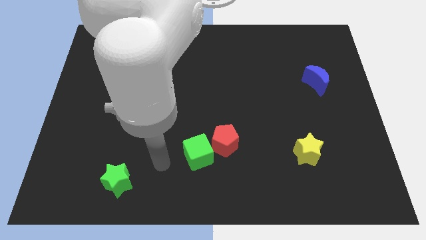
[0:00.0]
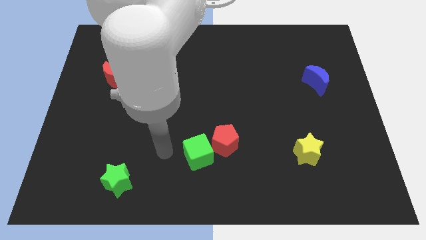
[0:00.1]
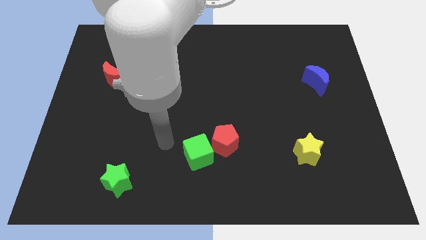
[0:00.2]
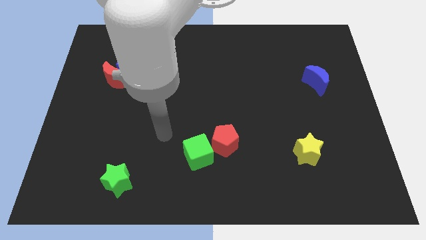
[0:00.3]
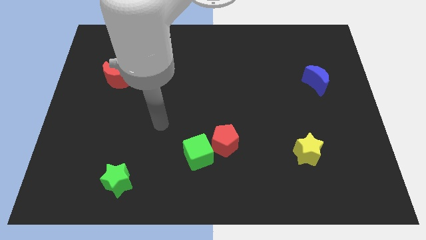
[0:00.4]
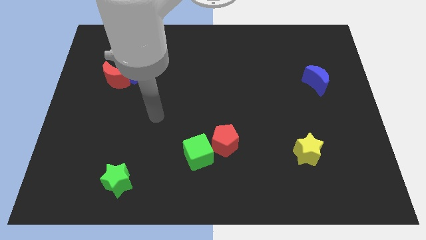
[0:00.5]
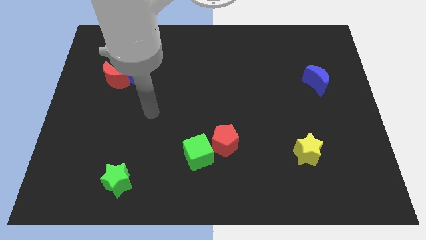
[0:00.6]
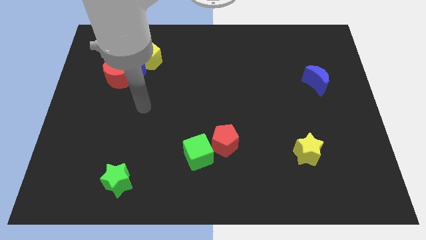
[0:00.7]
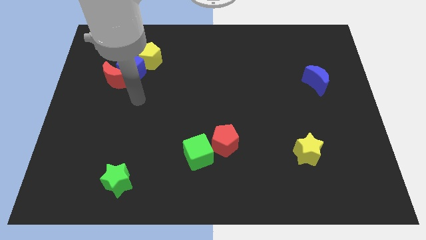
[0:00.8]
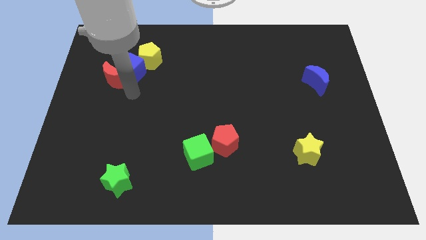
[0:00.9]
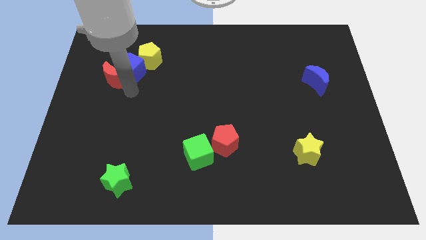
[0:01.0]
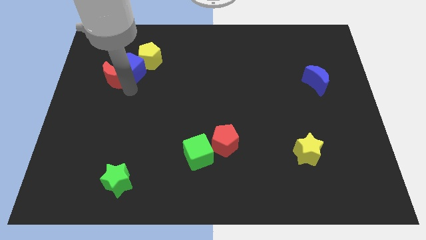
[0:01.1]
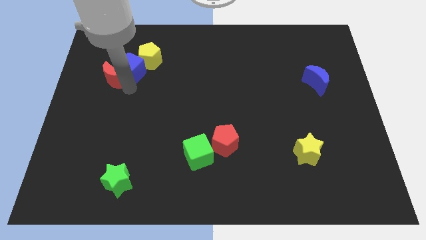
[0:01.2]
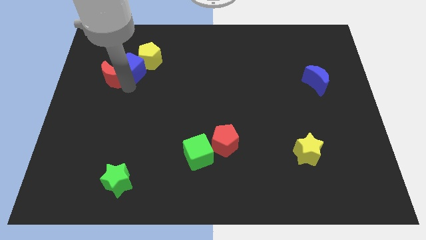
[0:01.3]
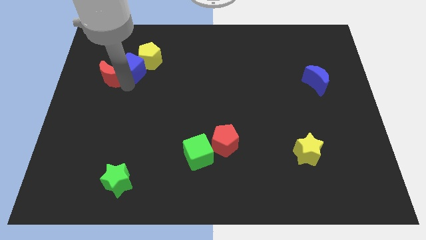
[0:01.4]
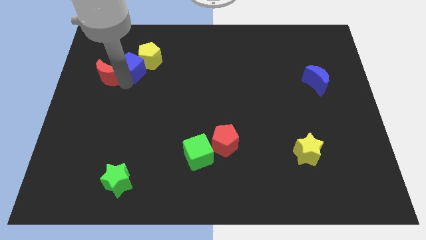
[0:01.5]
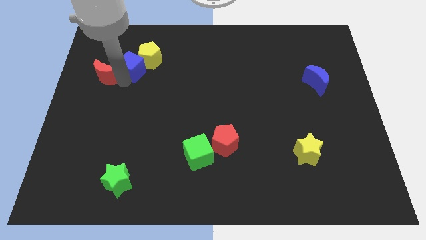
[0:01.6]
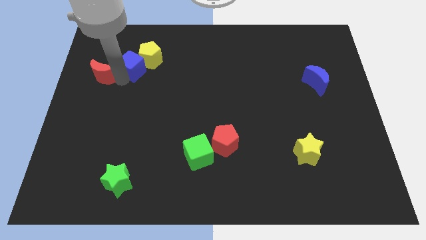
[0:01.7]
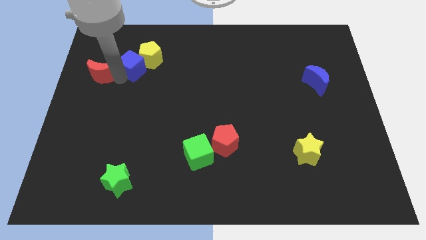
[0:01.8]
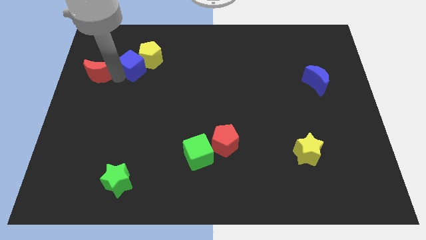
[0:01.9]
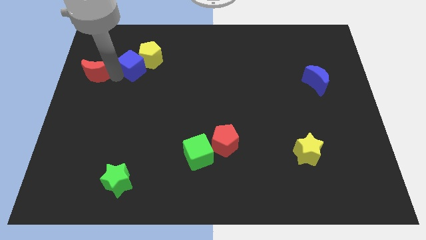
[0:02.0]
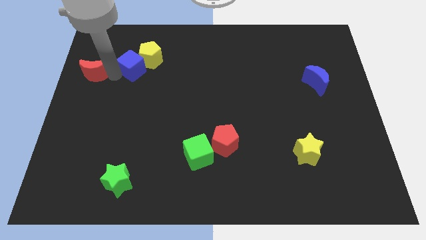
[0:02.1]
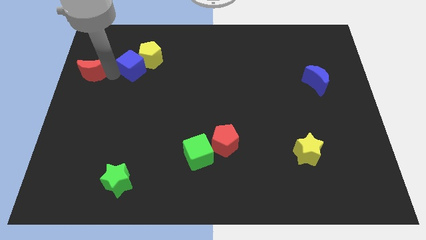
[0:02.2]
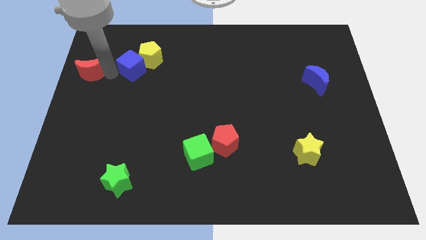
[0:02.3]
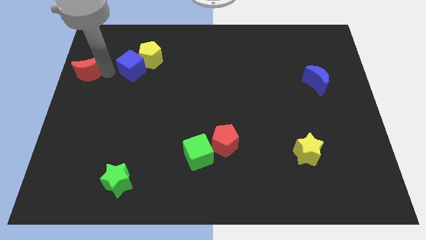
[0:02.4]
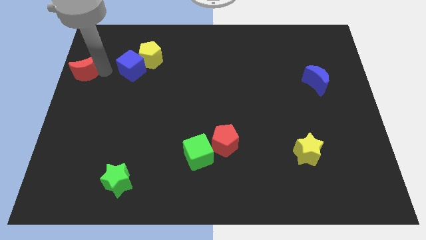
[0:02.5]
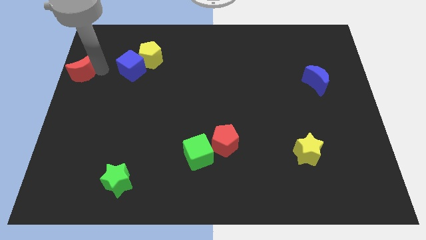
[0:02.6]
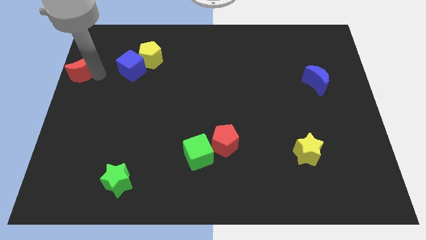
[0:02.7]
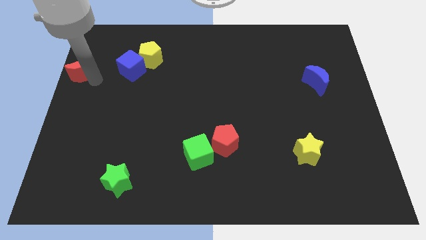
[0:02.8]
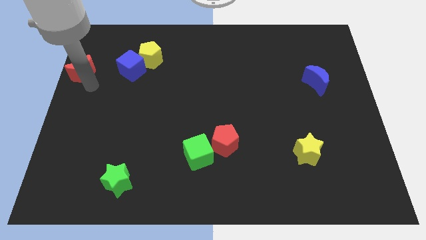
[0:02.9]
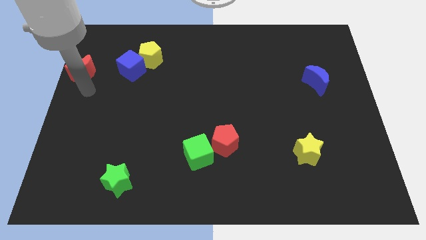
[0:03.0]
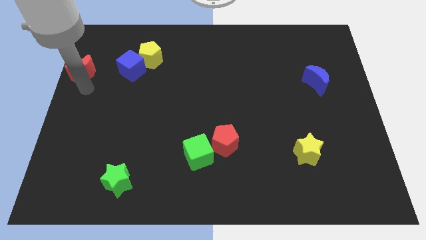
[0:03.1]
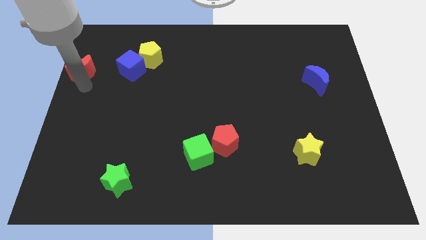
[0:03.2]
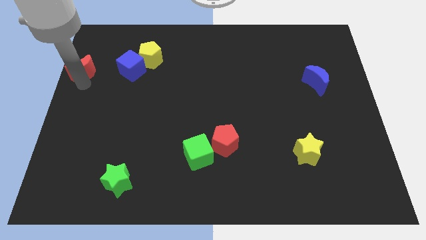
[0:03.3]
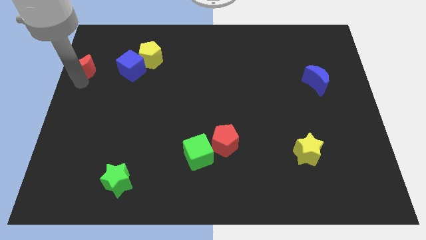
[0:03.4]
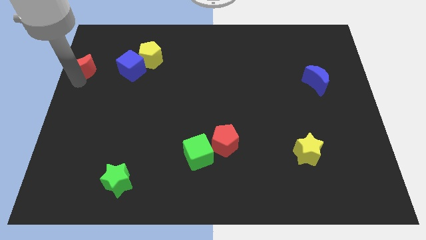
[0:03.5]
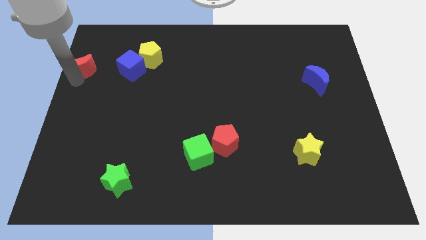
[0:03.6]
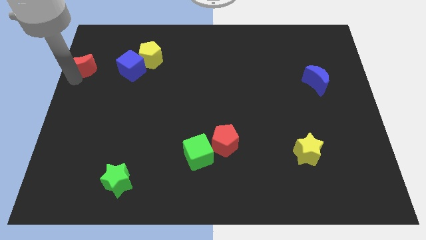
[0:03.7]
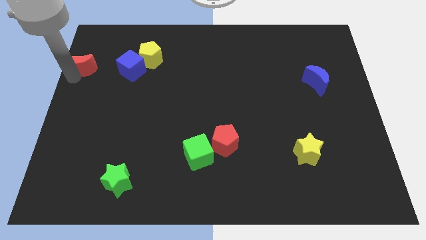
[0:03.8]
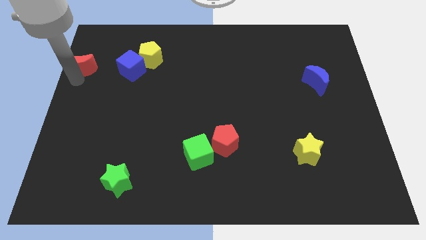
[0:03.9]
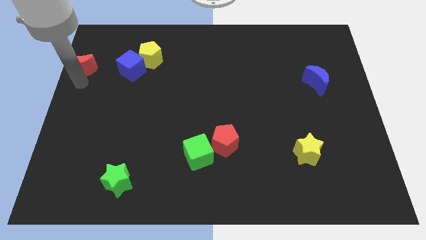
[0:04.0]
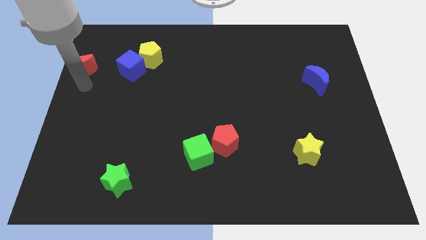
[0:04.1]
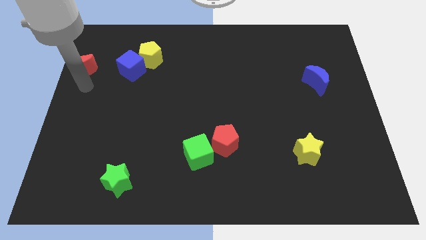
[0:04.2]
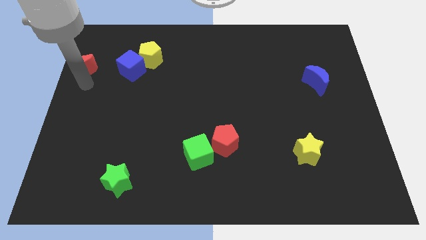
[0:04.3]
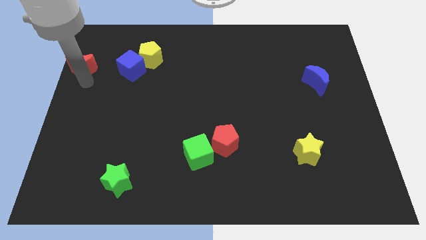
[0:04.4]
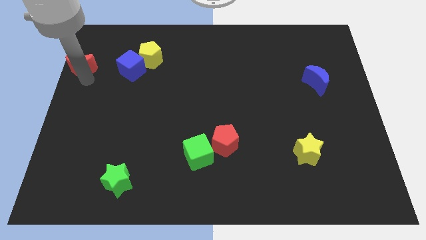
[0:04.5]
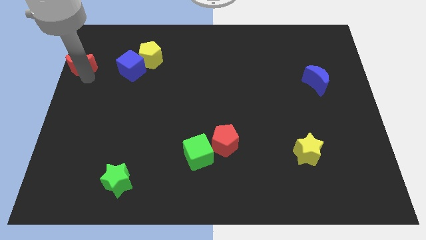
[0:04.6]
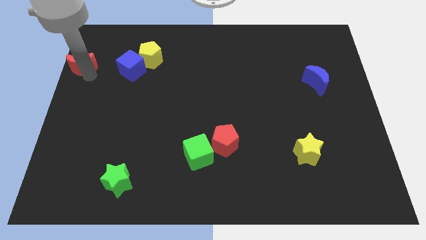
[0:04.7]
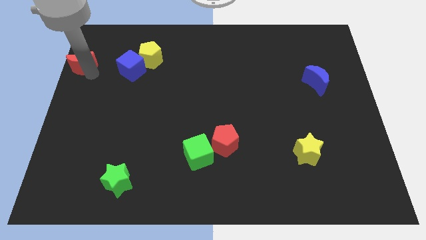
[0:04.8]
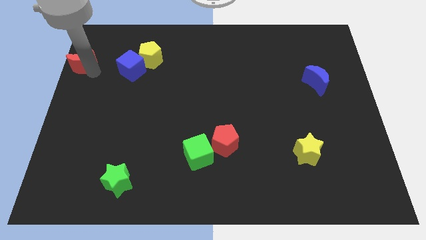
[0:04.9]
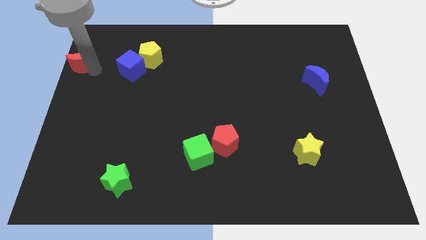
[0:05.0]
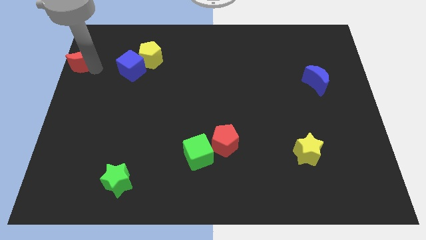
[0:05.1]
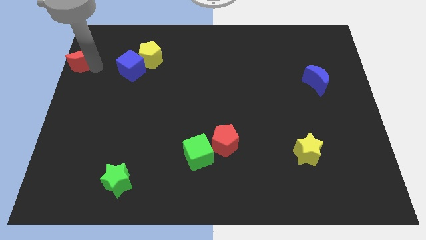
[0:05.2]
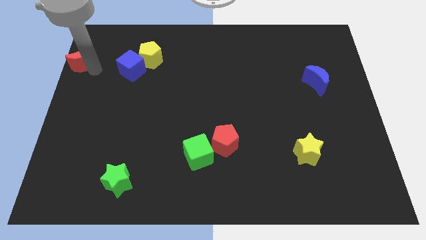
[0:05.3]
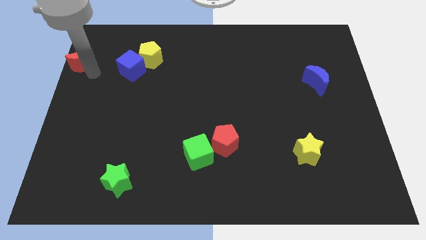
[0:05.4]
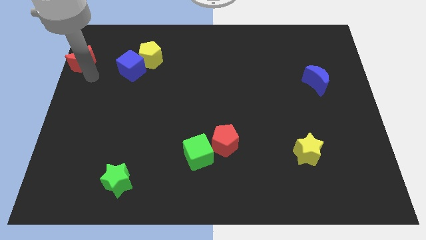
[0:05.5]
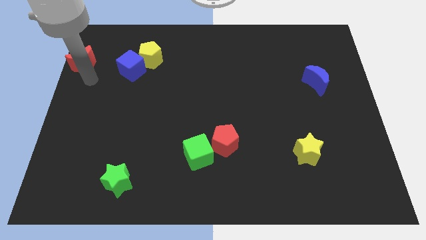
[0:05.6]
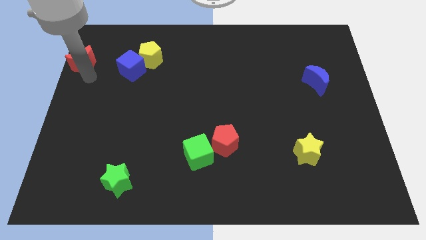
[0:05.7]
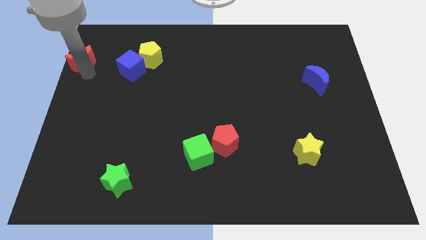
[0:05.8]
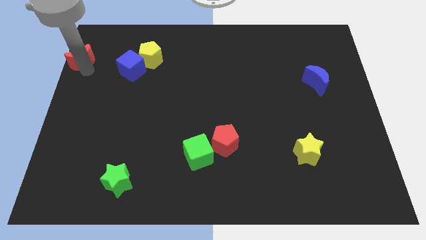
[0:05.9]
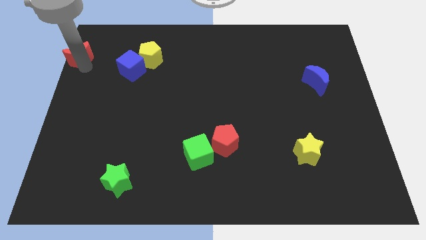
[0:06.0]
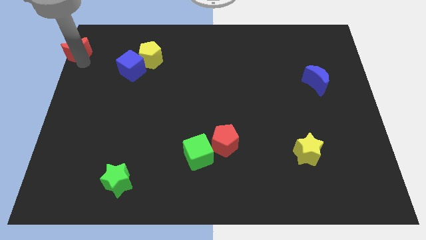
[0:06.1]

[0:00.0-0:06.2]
push the red moon to the top left of the board

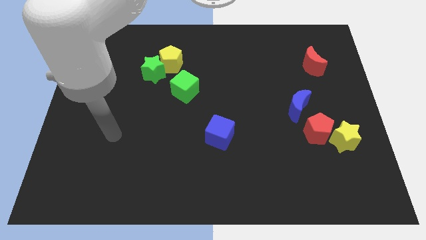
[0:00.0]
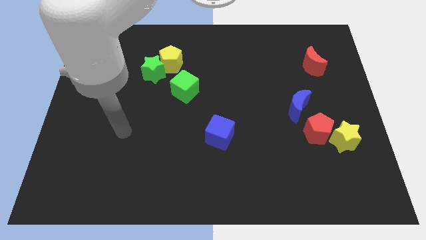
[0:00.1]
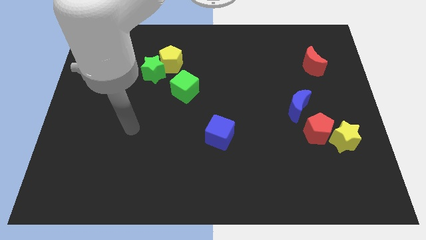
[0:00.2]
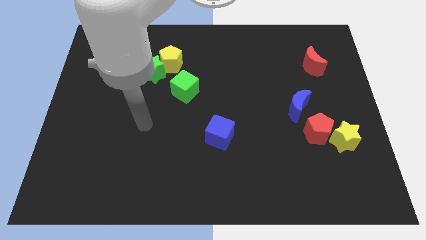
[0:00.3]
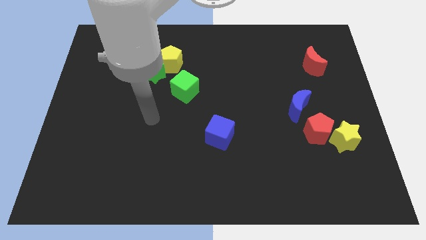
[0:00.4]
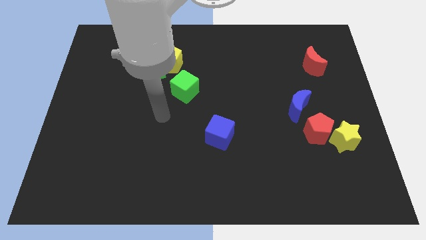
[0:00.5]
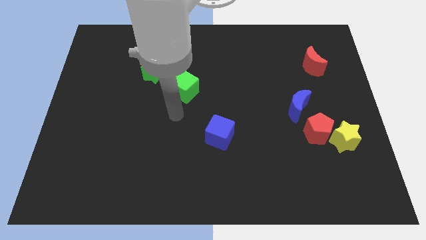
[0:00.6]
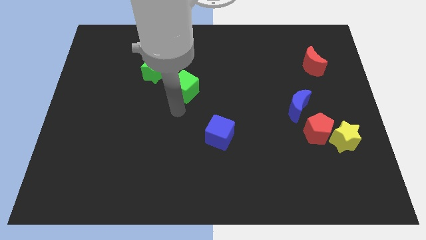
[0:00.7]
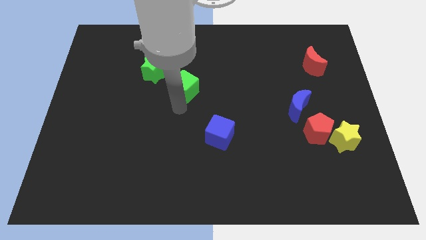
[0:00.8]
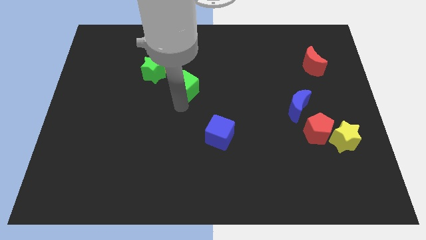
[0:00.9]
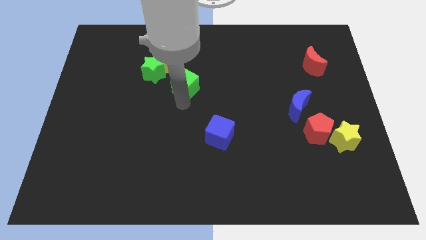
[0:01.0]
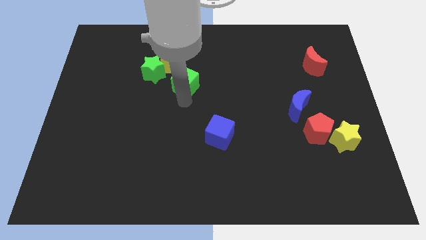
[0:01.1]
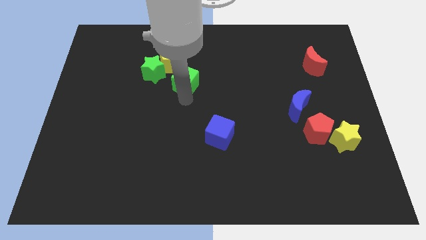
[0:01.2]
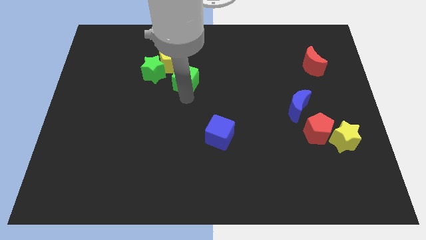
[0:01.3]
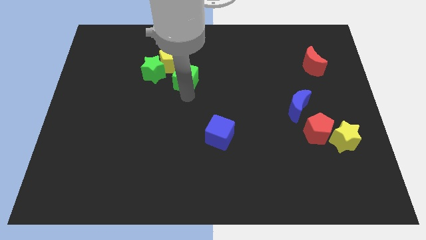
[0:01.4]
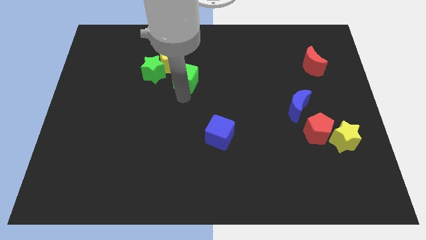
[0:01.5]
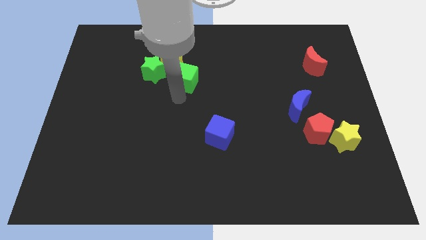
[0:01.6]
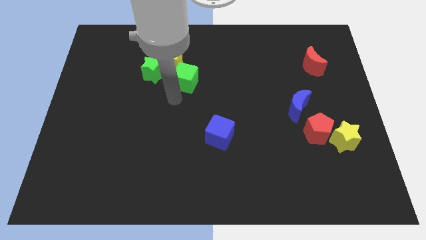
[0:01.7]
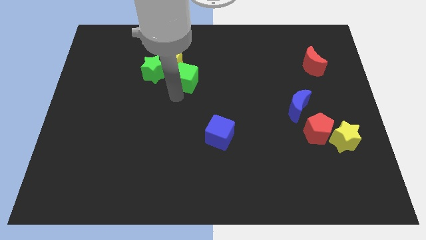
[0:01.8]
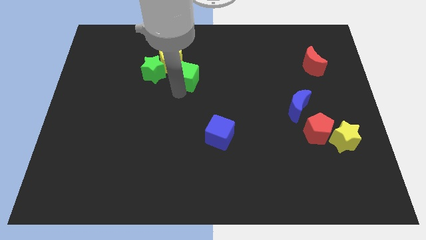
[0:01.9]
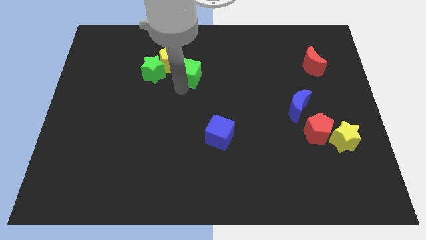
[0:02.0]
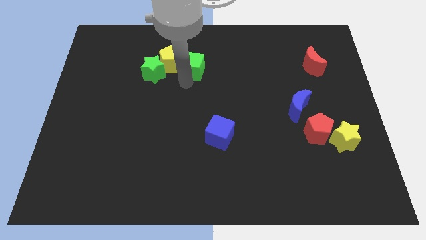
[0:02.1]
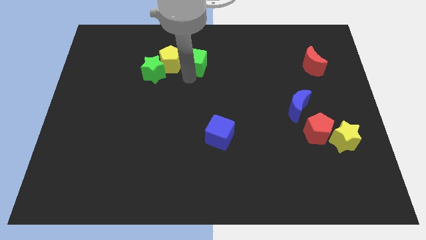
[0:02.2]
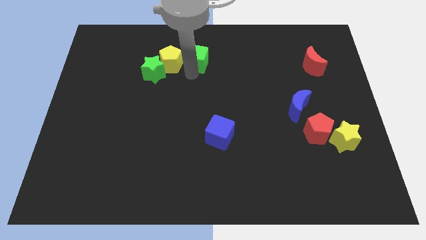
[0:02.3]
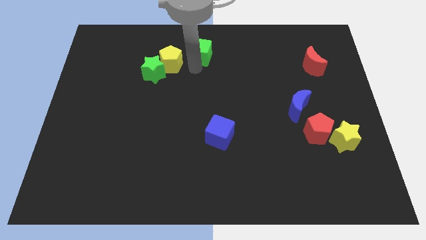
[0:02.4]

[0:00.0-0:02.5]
push the green cube to the towards your base
